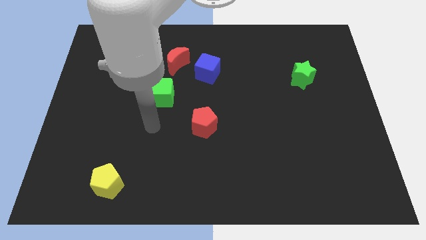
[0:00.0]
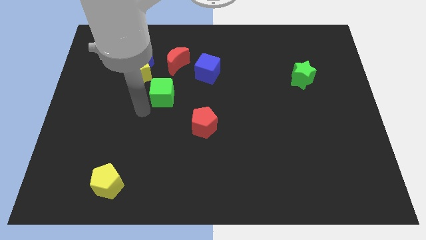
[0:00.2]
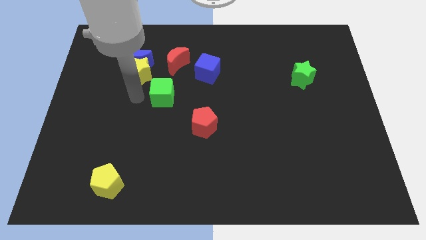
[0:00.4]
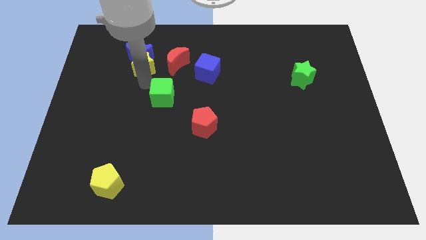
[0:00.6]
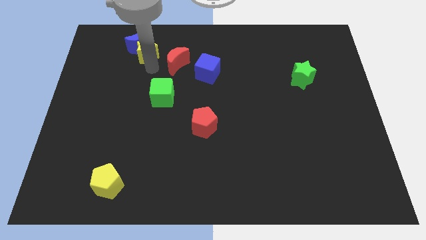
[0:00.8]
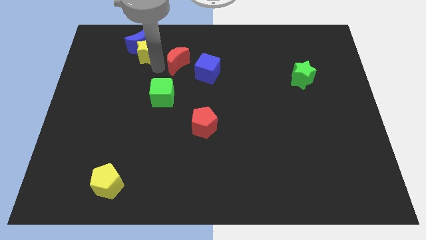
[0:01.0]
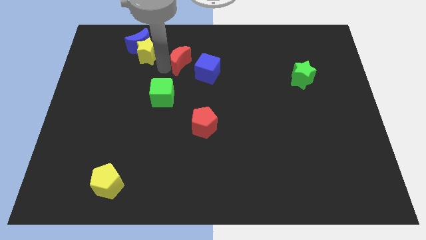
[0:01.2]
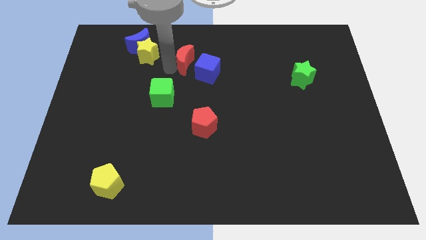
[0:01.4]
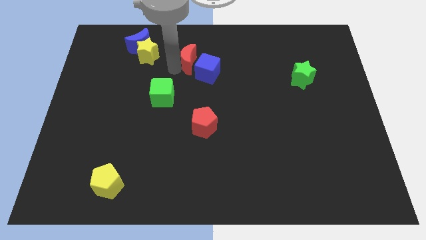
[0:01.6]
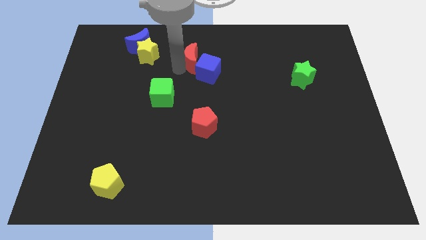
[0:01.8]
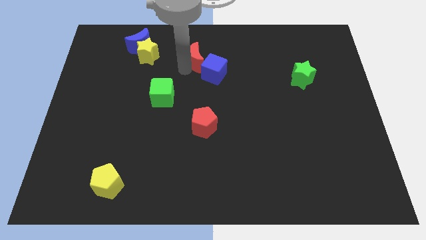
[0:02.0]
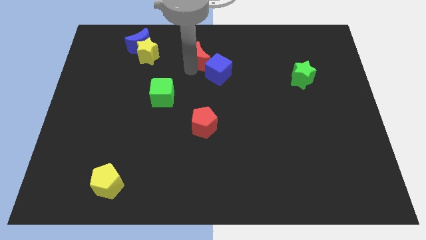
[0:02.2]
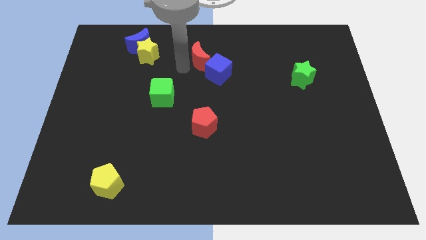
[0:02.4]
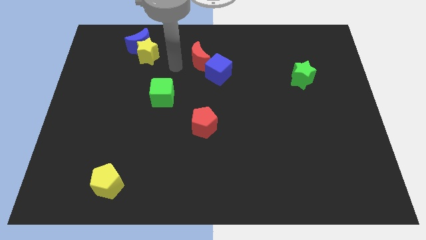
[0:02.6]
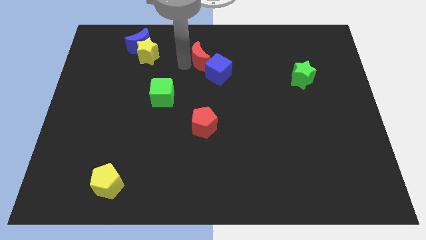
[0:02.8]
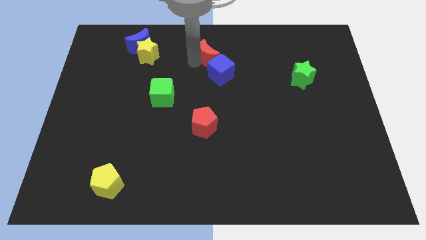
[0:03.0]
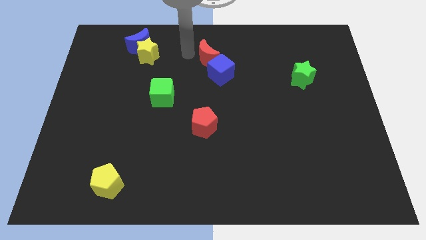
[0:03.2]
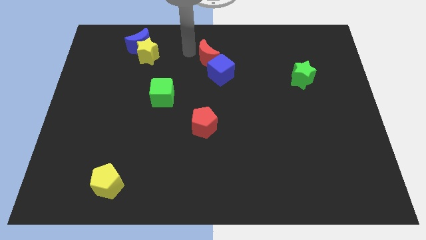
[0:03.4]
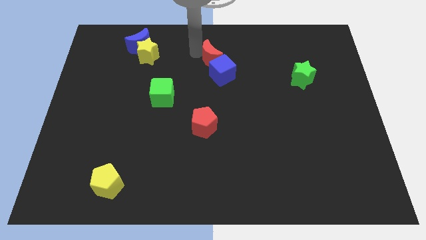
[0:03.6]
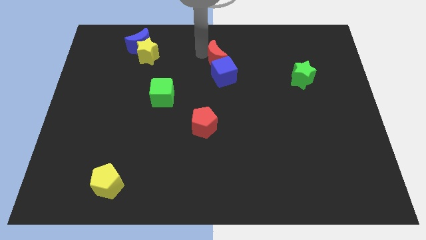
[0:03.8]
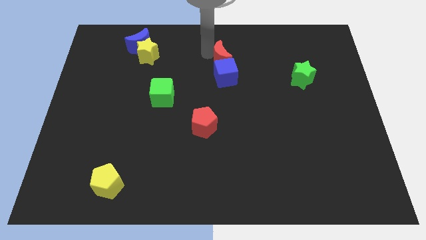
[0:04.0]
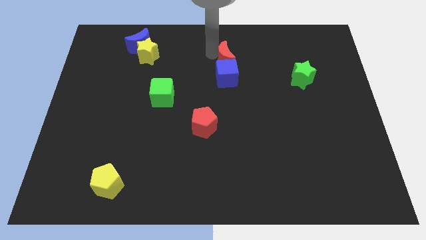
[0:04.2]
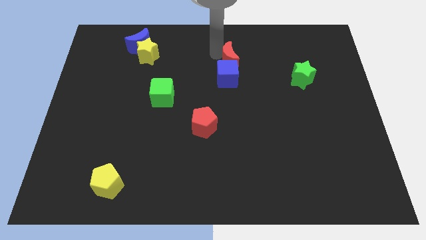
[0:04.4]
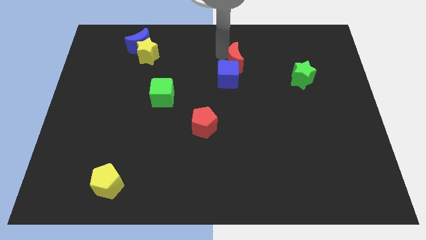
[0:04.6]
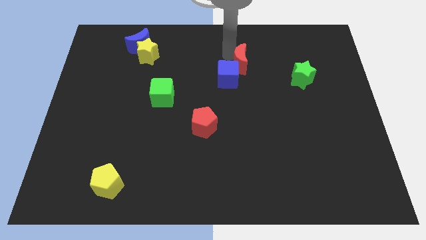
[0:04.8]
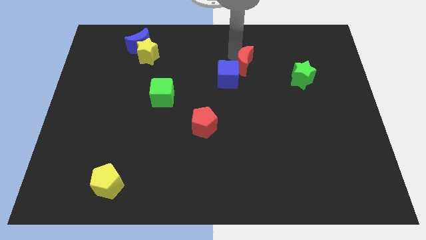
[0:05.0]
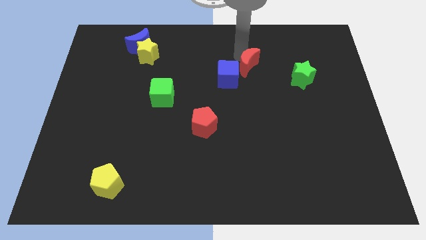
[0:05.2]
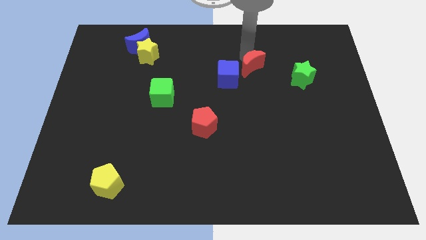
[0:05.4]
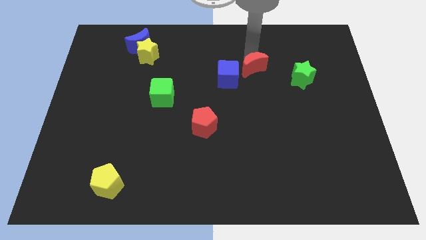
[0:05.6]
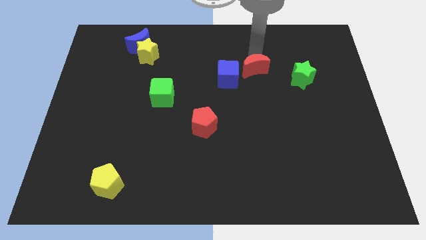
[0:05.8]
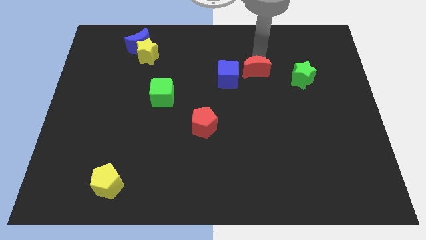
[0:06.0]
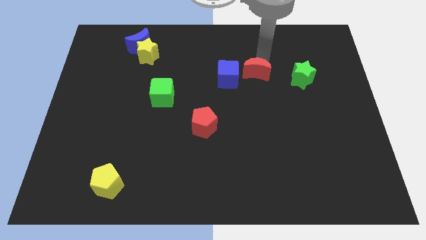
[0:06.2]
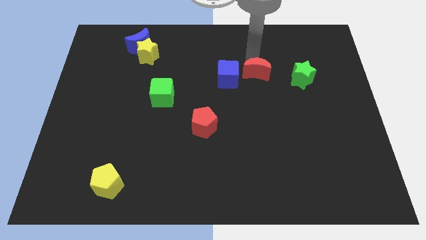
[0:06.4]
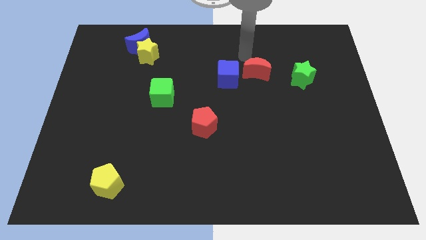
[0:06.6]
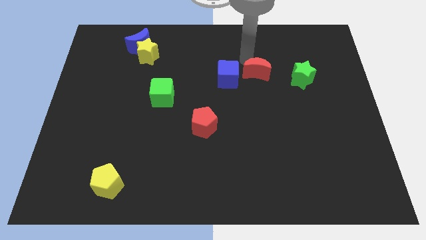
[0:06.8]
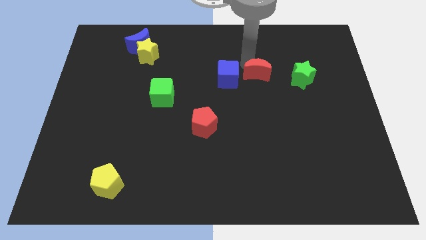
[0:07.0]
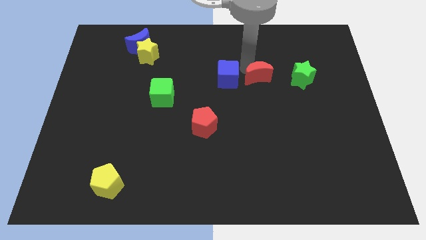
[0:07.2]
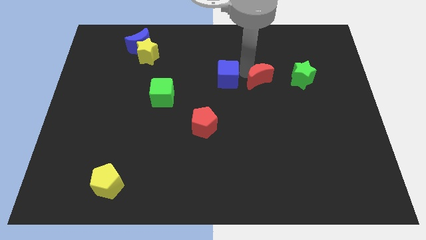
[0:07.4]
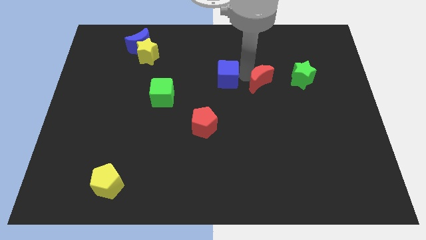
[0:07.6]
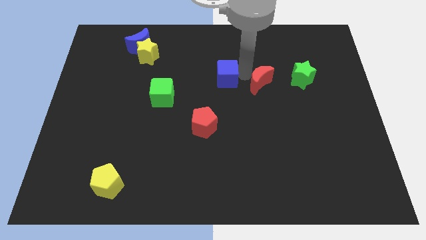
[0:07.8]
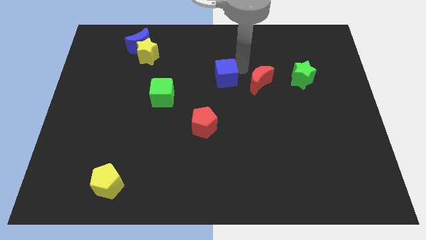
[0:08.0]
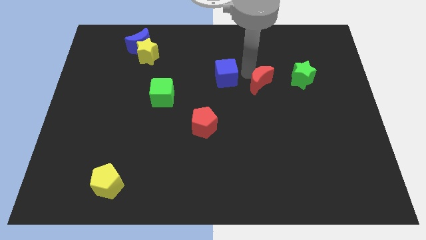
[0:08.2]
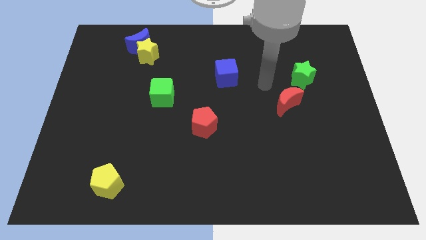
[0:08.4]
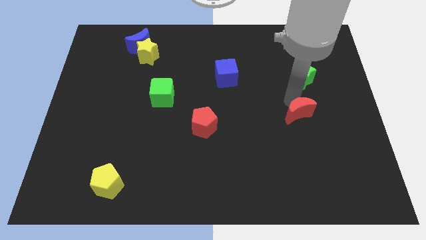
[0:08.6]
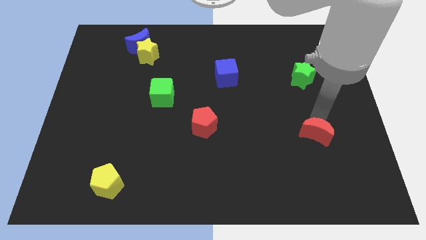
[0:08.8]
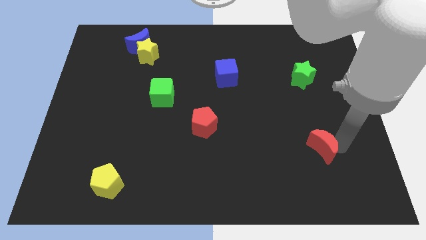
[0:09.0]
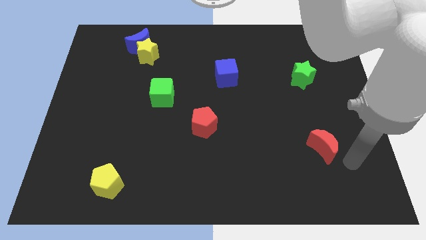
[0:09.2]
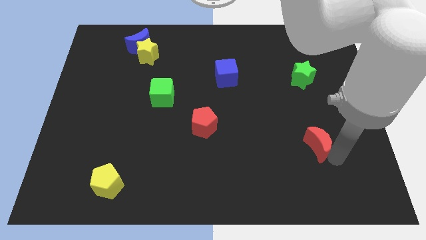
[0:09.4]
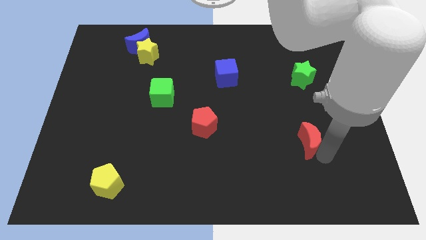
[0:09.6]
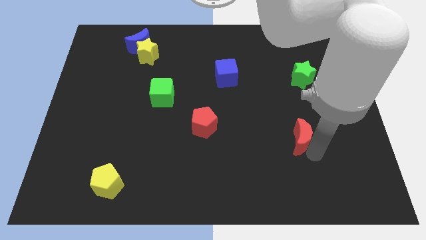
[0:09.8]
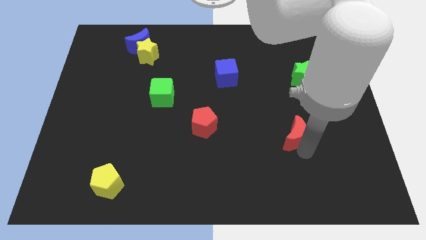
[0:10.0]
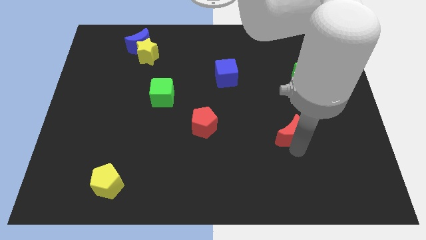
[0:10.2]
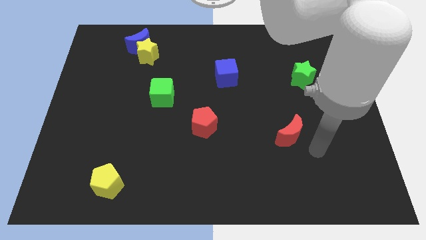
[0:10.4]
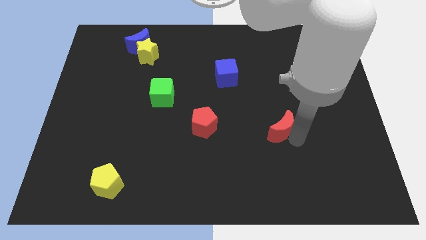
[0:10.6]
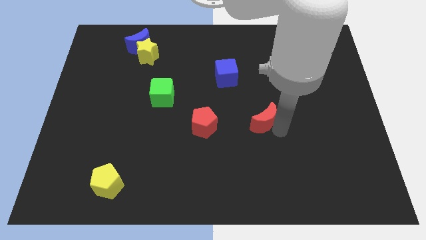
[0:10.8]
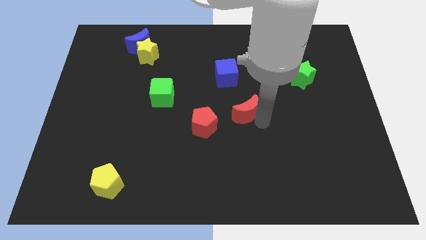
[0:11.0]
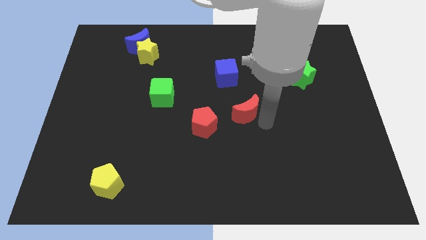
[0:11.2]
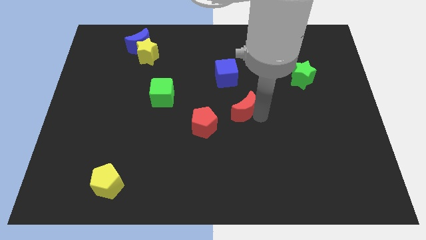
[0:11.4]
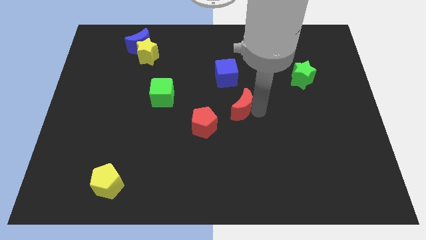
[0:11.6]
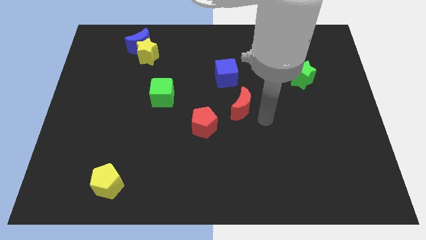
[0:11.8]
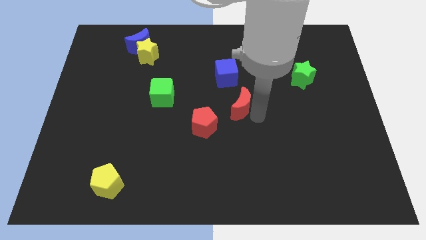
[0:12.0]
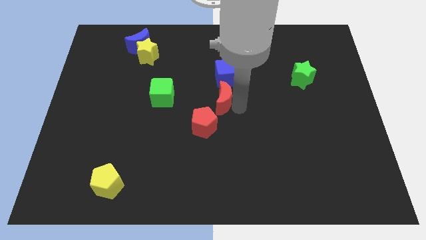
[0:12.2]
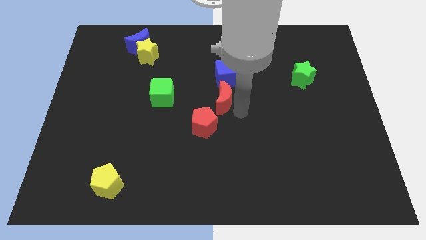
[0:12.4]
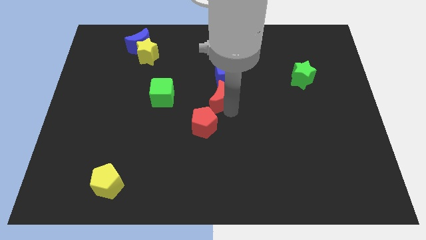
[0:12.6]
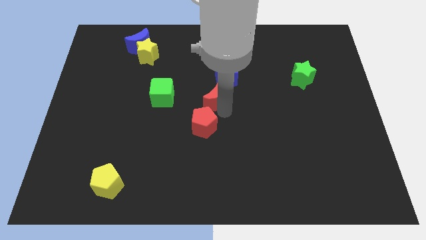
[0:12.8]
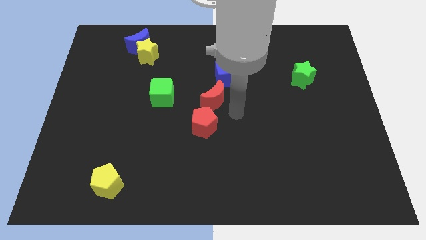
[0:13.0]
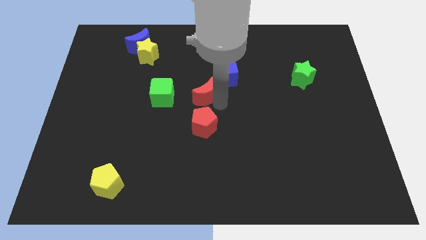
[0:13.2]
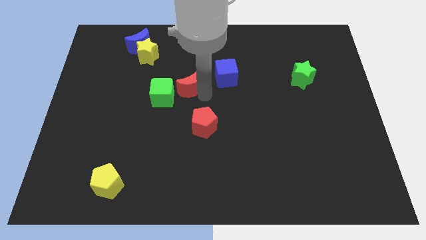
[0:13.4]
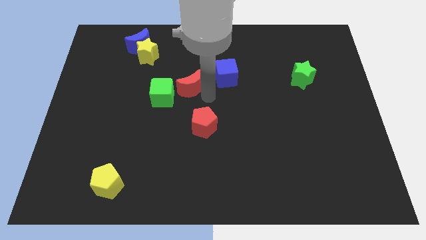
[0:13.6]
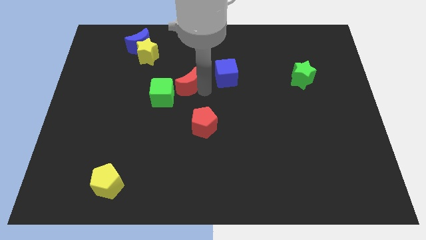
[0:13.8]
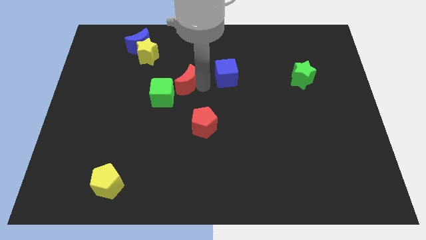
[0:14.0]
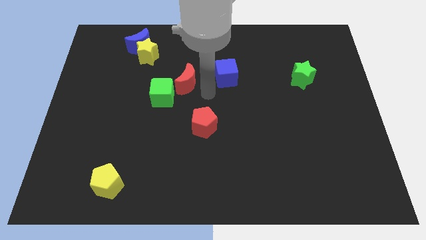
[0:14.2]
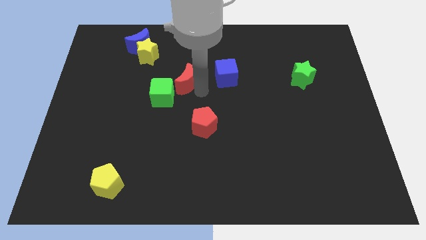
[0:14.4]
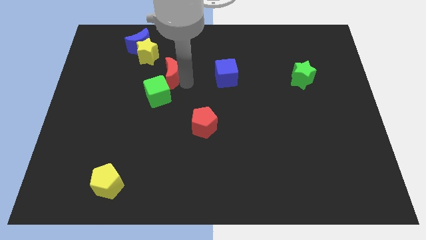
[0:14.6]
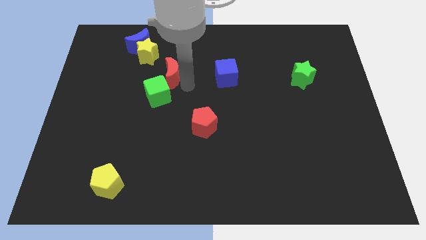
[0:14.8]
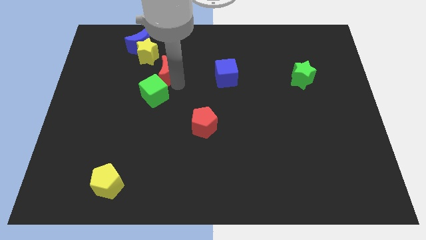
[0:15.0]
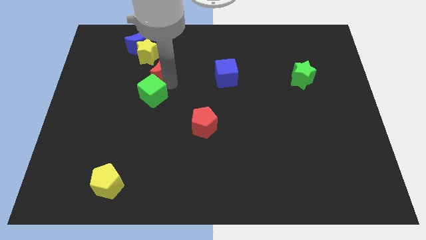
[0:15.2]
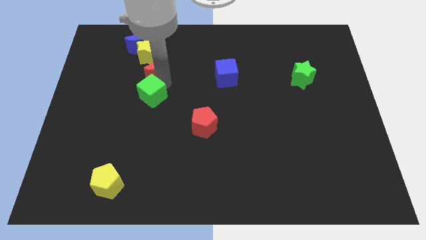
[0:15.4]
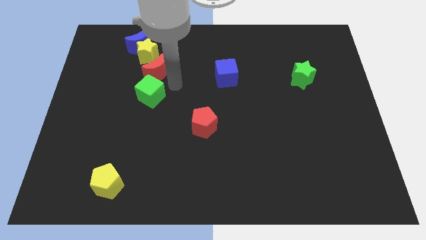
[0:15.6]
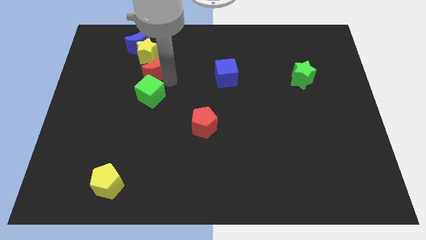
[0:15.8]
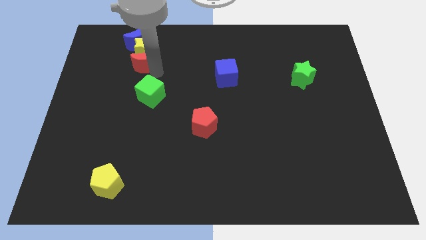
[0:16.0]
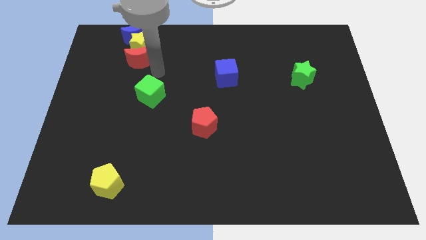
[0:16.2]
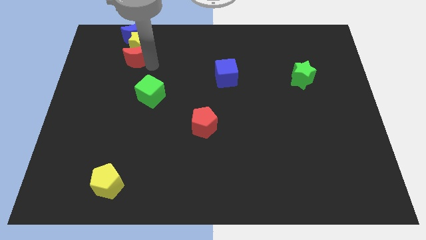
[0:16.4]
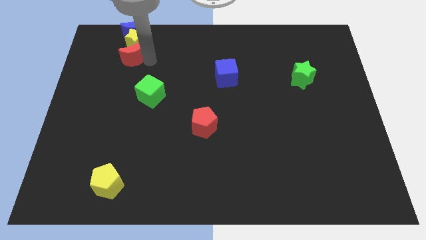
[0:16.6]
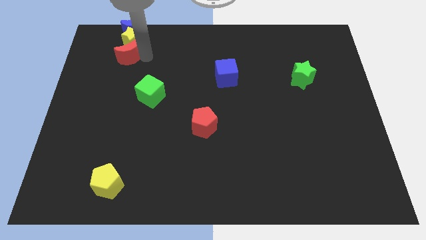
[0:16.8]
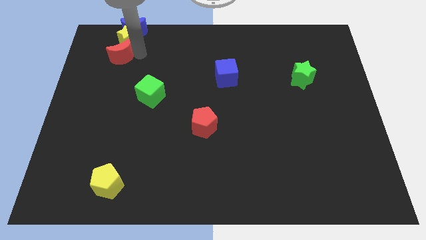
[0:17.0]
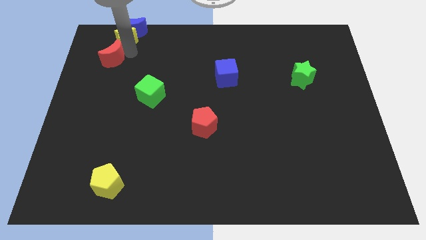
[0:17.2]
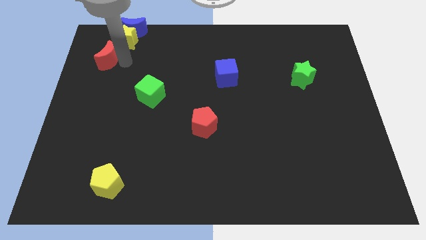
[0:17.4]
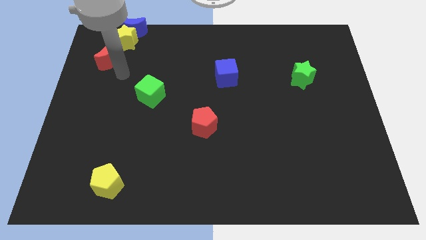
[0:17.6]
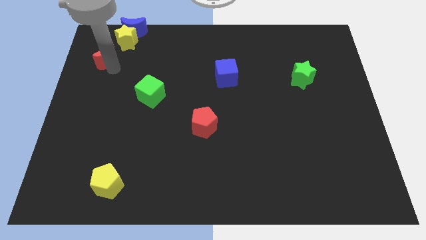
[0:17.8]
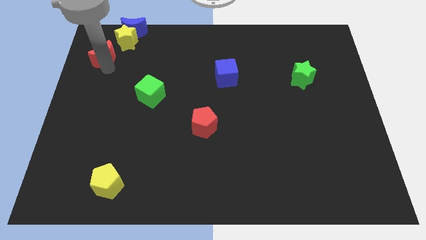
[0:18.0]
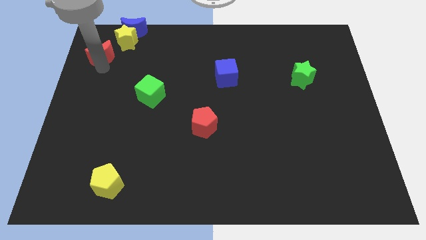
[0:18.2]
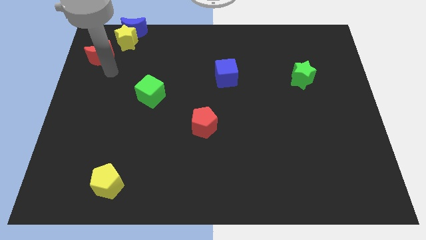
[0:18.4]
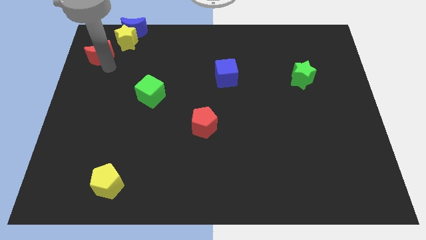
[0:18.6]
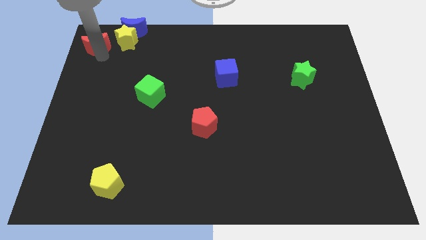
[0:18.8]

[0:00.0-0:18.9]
move the red moon to the upper left corner
